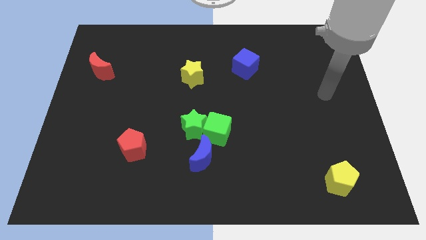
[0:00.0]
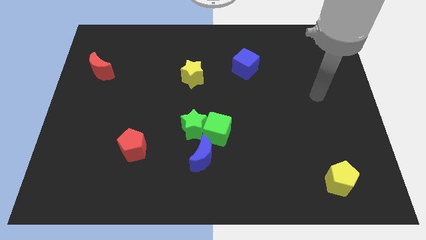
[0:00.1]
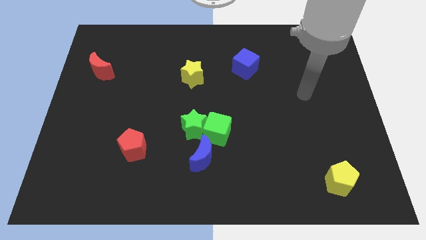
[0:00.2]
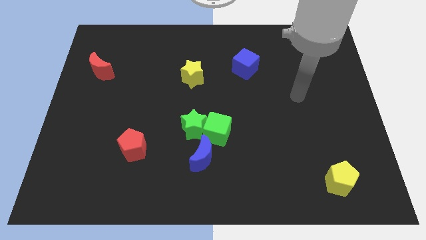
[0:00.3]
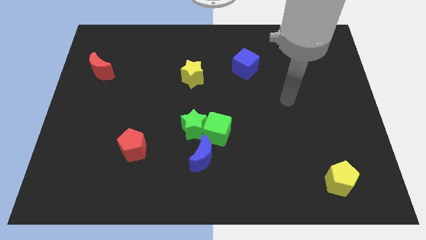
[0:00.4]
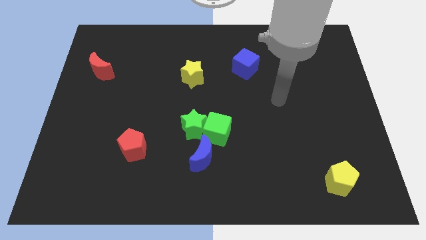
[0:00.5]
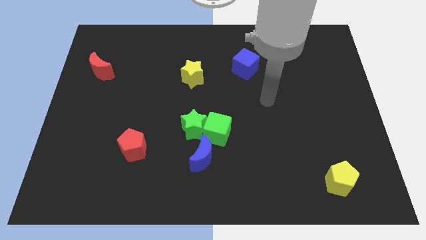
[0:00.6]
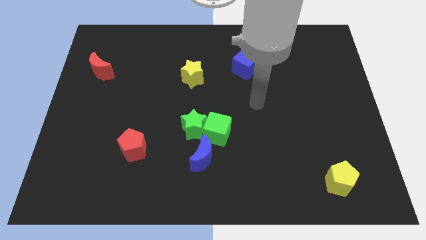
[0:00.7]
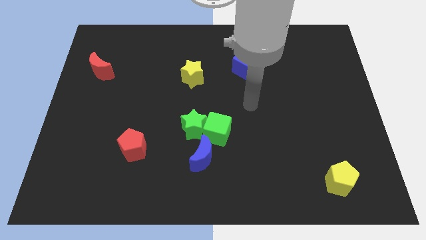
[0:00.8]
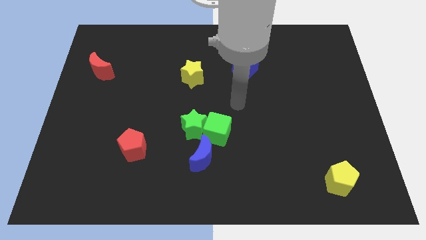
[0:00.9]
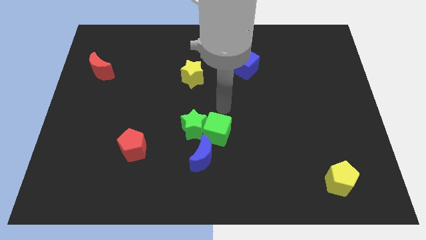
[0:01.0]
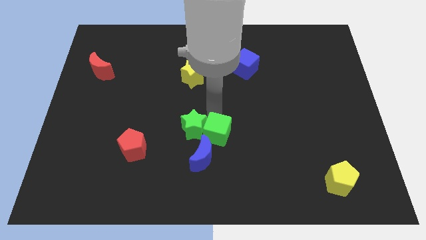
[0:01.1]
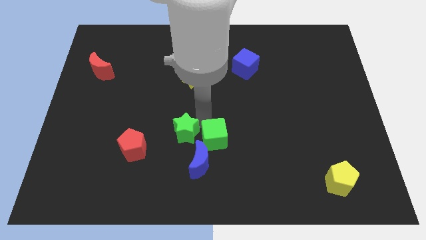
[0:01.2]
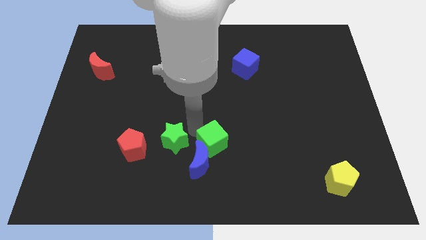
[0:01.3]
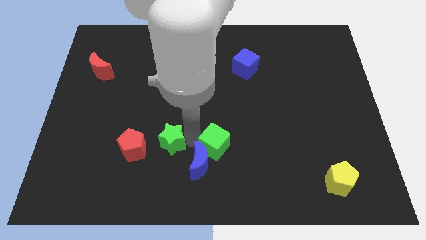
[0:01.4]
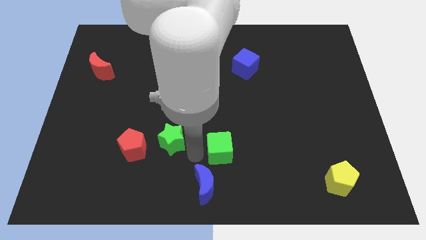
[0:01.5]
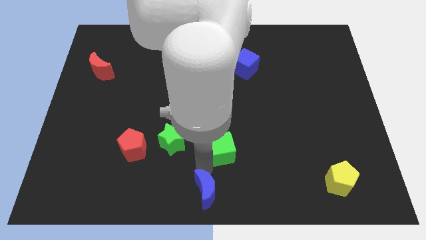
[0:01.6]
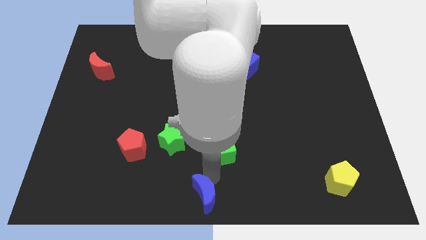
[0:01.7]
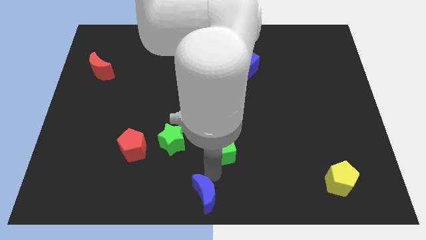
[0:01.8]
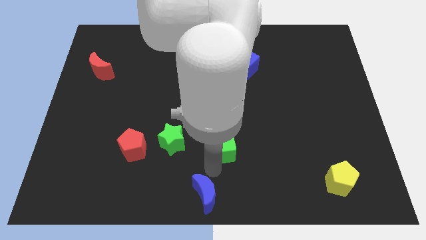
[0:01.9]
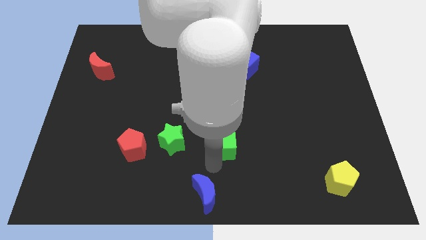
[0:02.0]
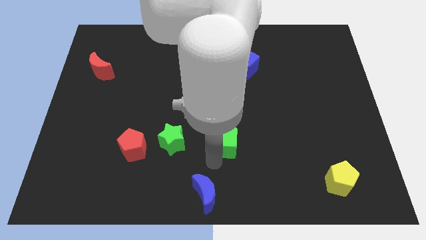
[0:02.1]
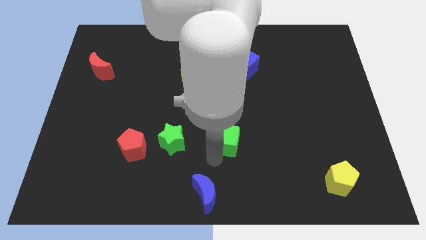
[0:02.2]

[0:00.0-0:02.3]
separate the green cube from the green star and blue moon

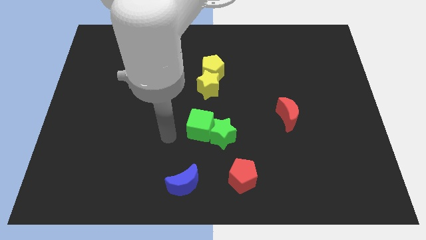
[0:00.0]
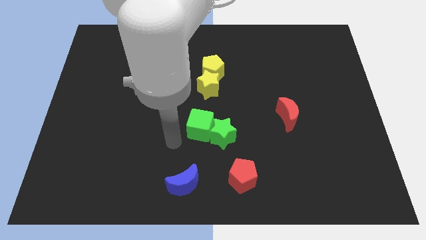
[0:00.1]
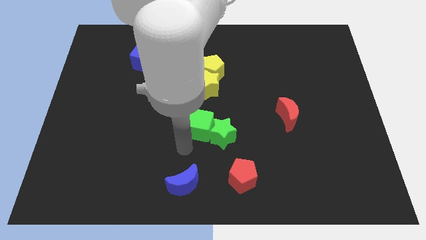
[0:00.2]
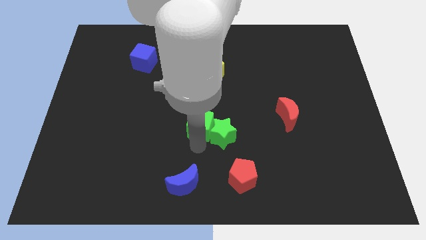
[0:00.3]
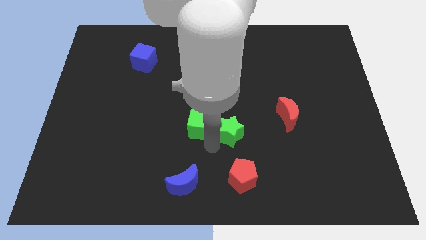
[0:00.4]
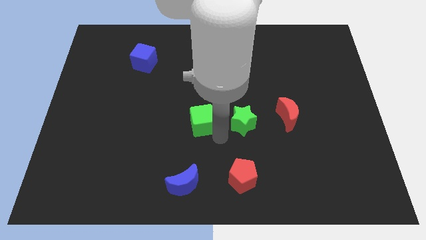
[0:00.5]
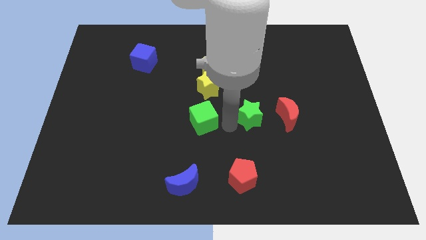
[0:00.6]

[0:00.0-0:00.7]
pull the green cube apart from the green star

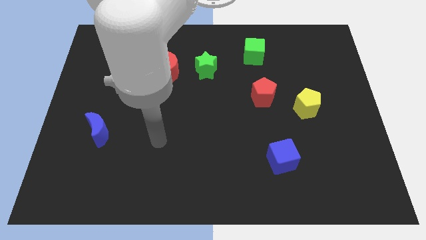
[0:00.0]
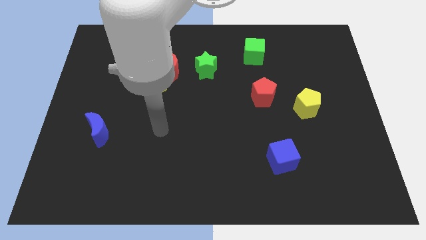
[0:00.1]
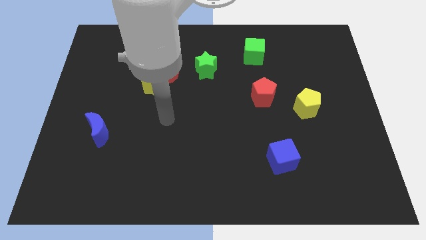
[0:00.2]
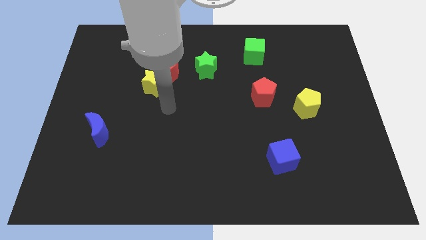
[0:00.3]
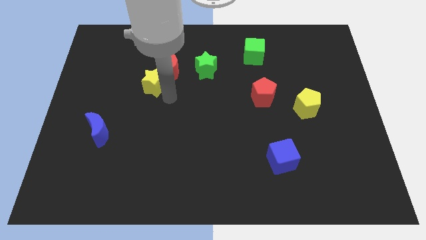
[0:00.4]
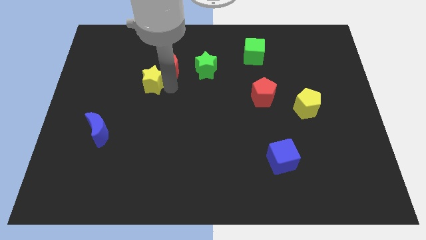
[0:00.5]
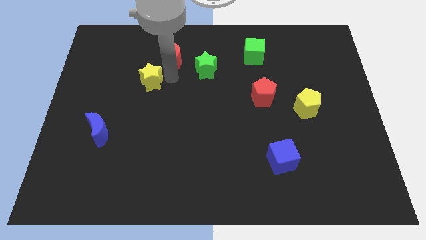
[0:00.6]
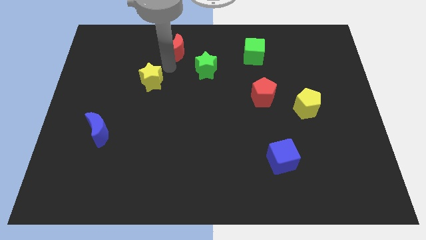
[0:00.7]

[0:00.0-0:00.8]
move the yellow star away from the red moon

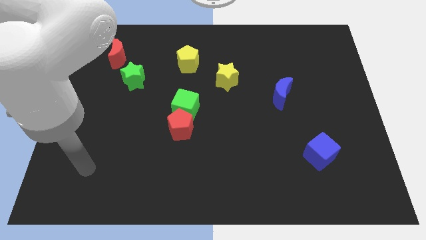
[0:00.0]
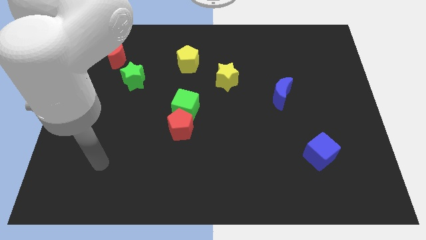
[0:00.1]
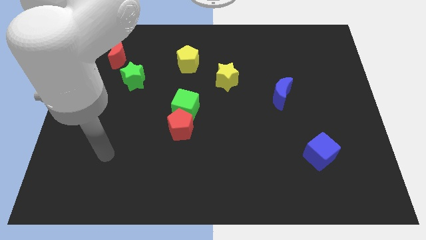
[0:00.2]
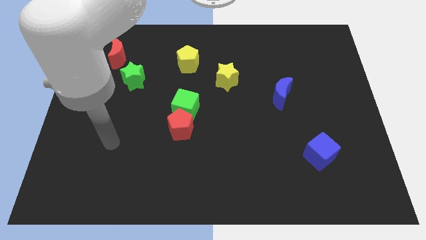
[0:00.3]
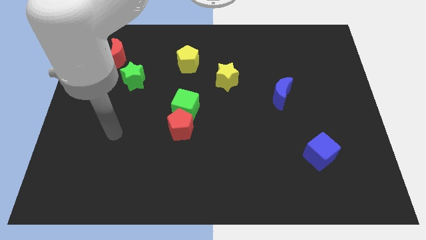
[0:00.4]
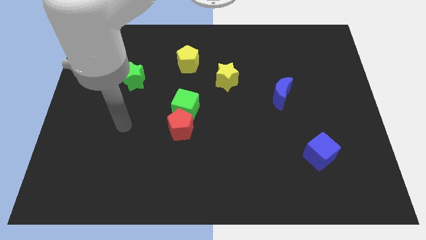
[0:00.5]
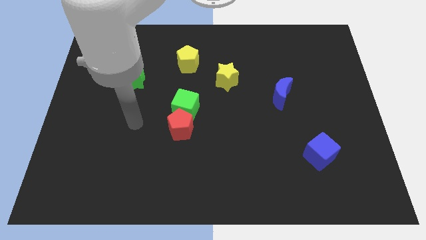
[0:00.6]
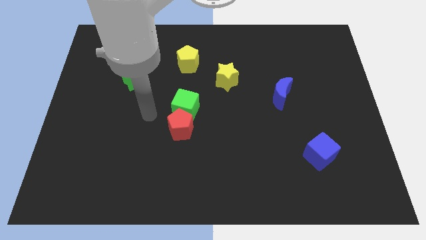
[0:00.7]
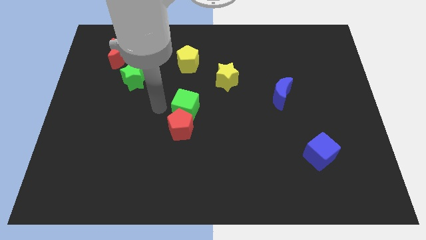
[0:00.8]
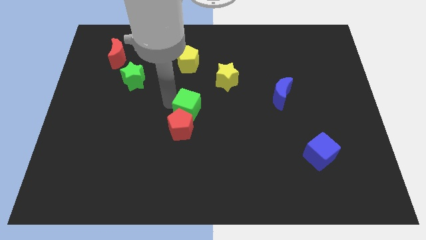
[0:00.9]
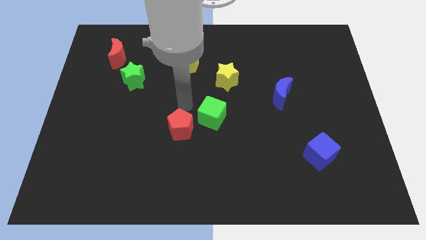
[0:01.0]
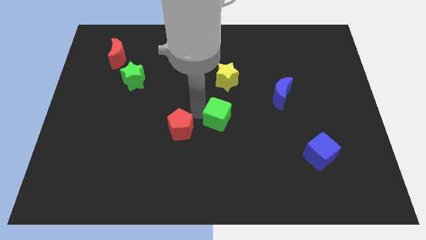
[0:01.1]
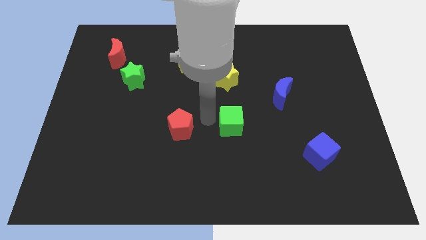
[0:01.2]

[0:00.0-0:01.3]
move the red pentagon away from the green cube

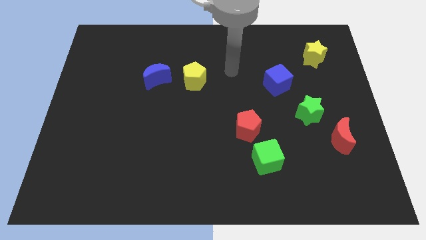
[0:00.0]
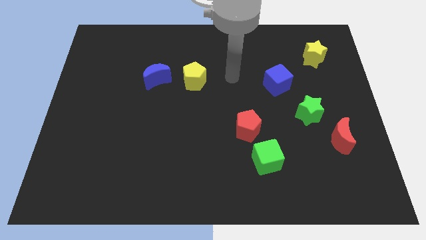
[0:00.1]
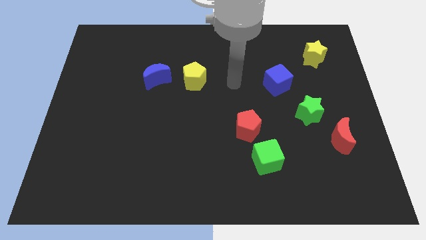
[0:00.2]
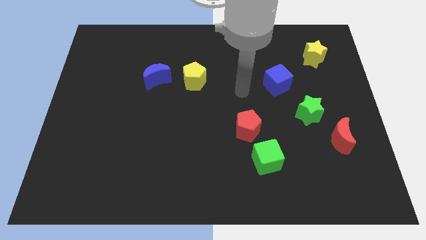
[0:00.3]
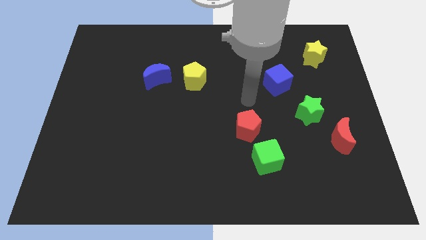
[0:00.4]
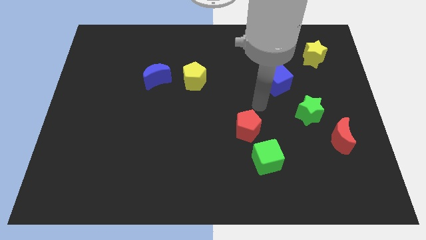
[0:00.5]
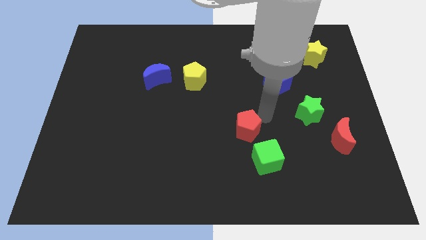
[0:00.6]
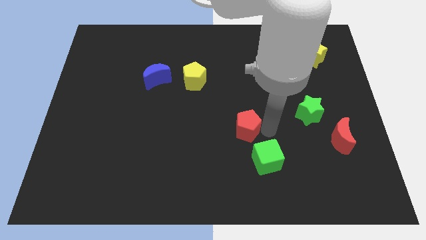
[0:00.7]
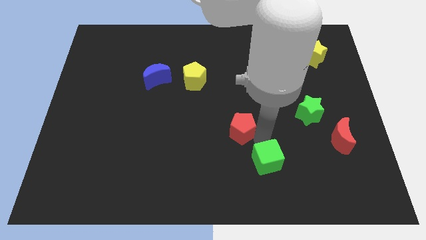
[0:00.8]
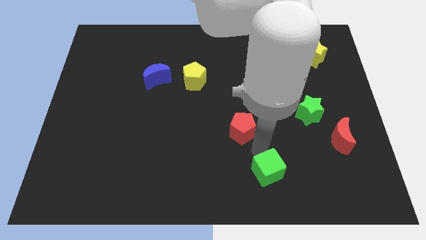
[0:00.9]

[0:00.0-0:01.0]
separate the red pentagon from the green cube

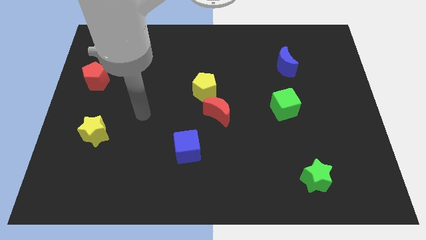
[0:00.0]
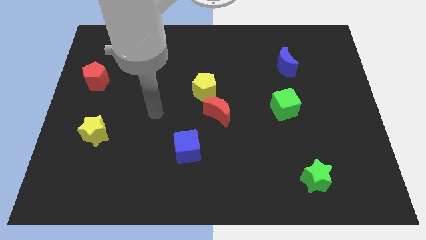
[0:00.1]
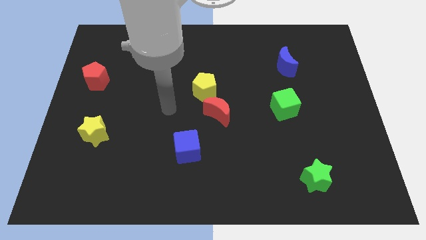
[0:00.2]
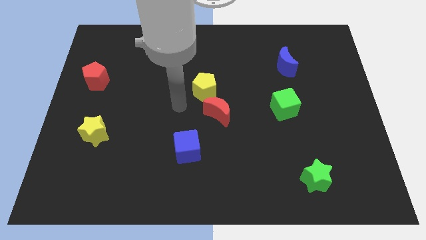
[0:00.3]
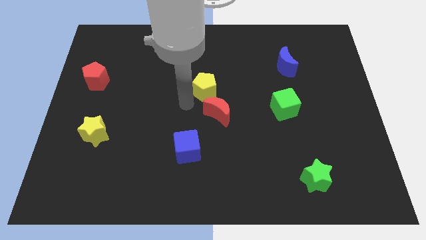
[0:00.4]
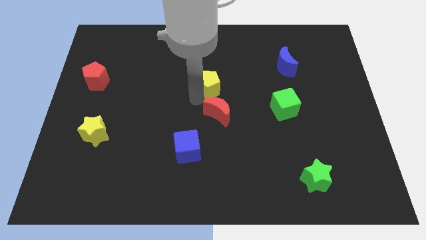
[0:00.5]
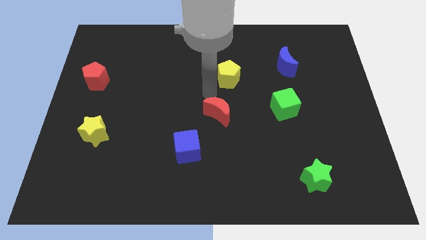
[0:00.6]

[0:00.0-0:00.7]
pull the red moon apart from the yellow pentagon

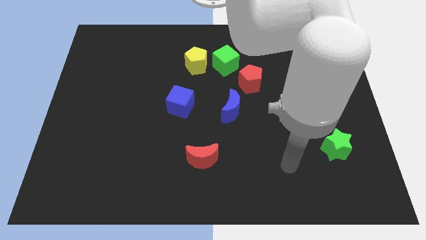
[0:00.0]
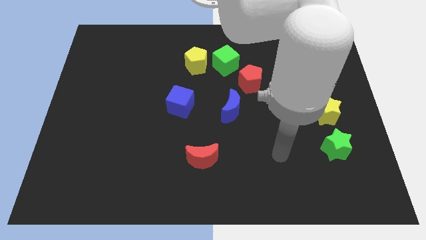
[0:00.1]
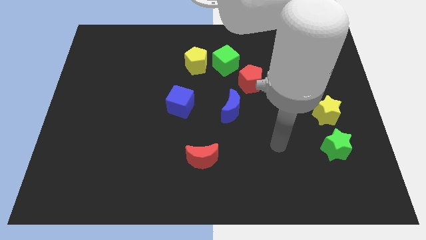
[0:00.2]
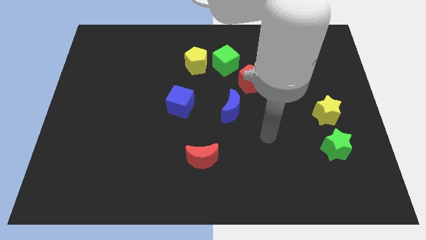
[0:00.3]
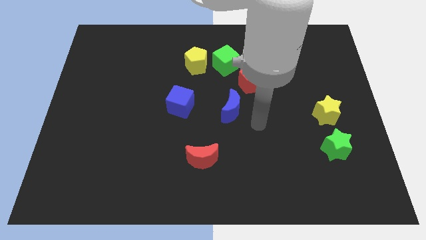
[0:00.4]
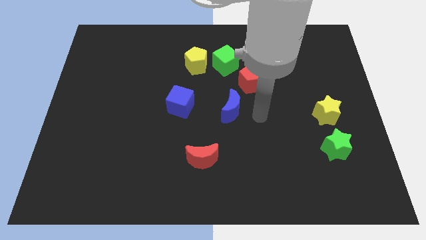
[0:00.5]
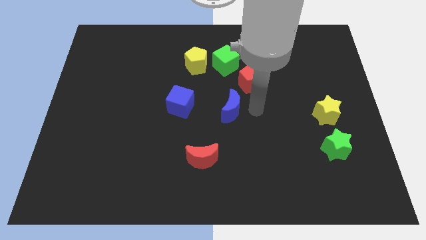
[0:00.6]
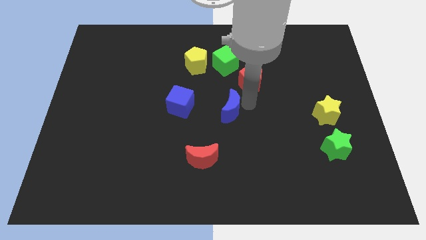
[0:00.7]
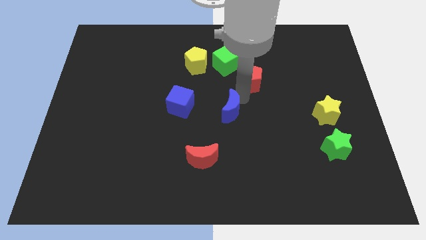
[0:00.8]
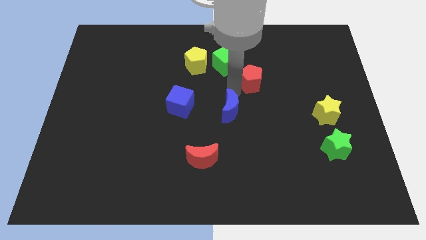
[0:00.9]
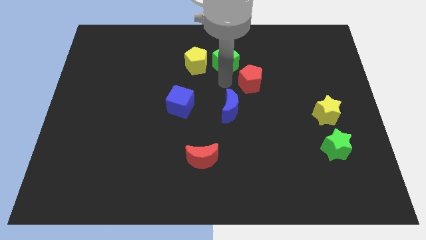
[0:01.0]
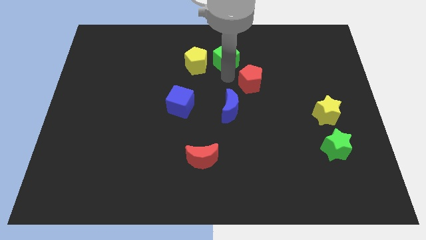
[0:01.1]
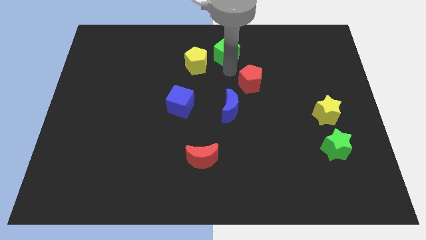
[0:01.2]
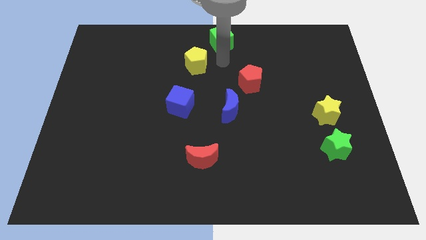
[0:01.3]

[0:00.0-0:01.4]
move the yellow pentagon away from the green cube

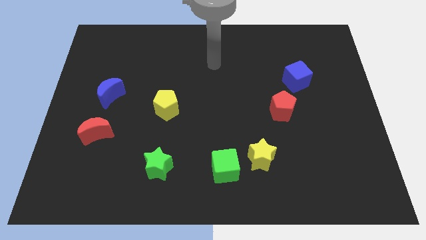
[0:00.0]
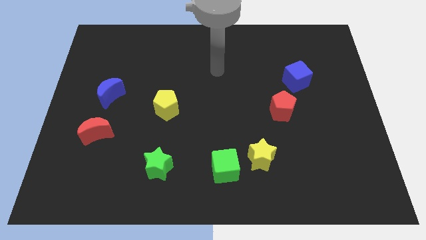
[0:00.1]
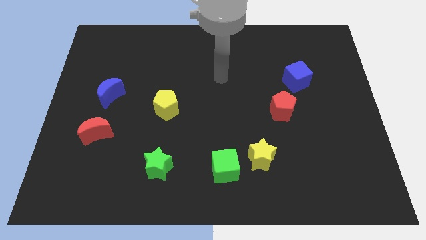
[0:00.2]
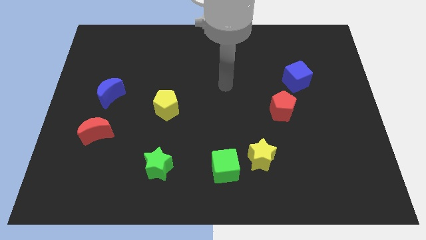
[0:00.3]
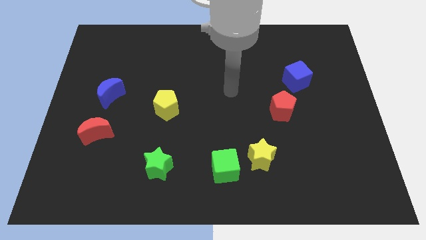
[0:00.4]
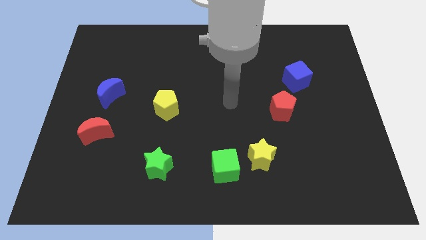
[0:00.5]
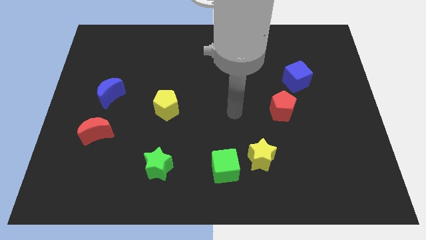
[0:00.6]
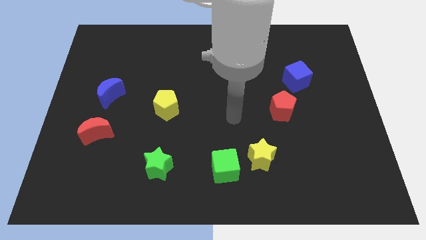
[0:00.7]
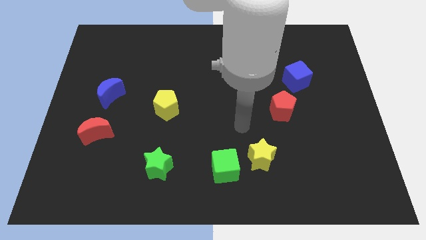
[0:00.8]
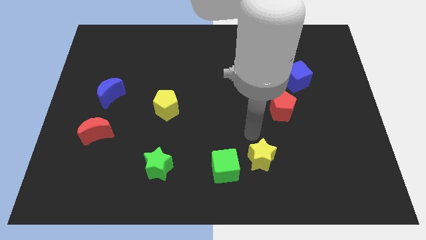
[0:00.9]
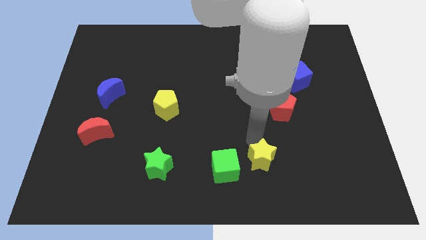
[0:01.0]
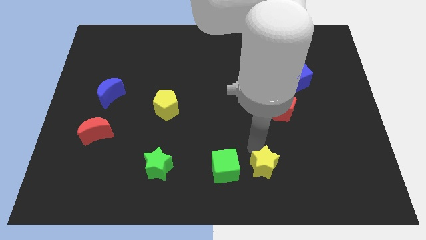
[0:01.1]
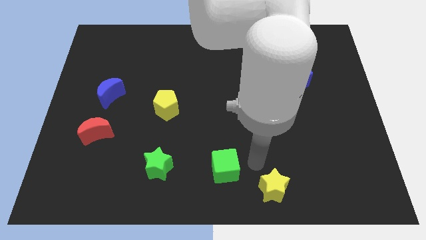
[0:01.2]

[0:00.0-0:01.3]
move the green cube away from the yellow star

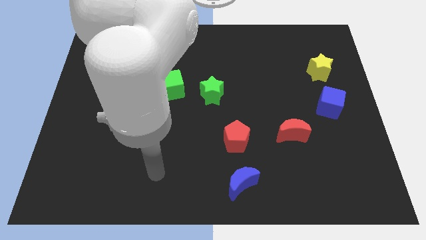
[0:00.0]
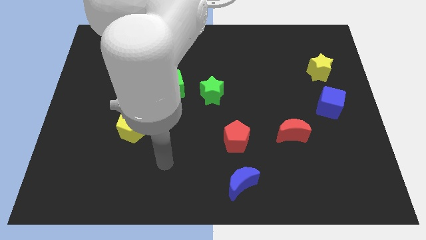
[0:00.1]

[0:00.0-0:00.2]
separate the green cube from the green star
